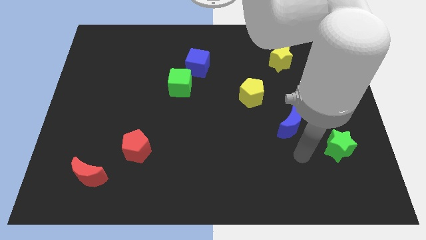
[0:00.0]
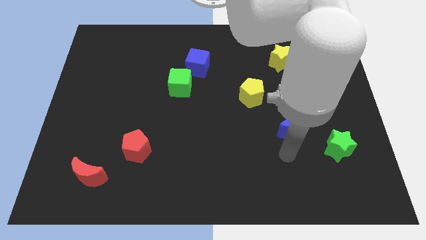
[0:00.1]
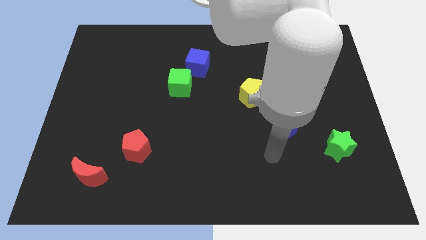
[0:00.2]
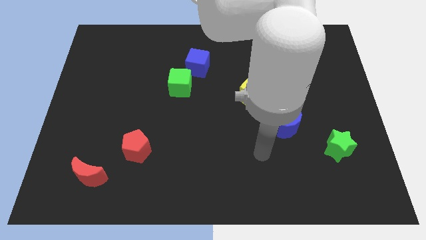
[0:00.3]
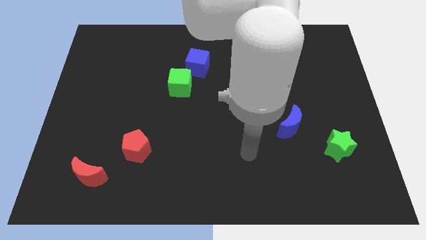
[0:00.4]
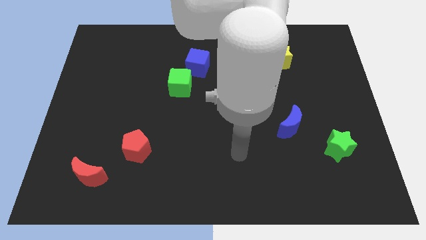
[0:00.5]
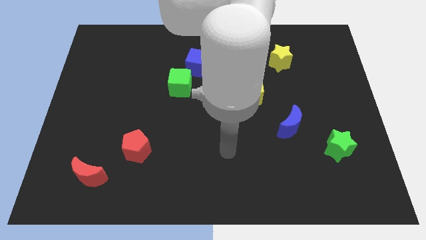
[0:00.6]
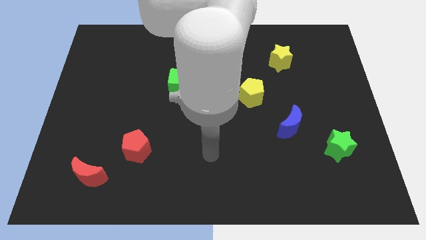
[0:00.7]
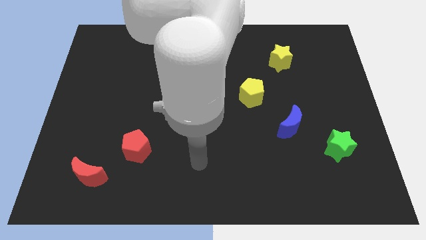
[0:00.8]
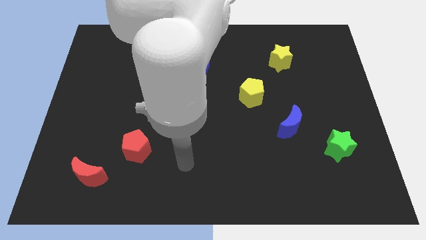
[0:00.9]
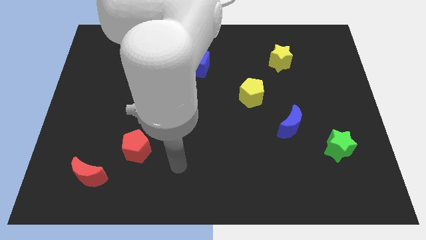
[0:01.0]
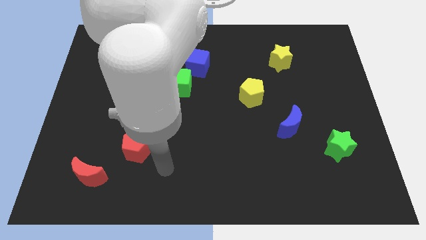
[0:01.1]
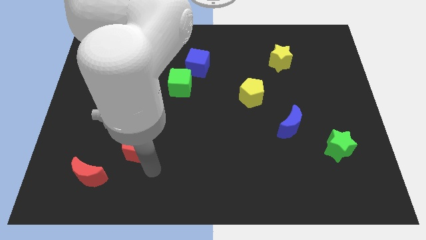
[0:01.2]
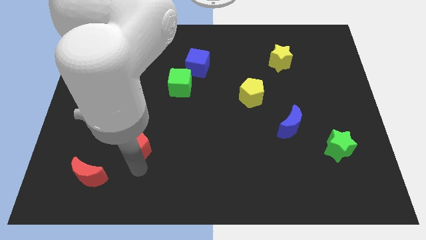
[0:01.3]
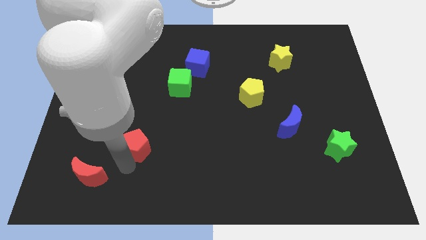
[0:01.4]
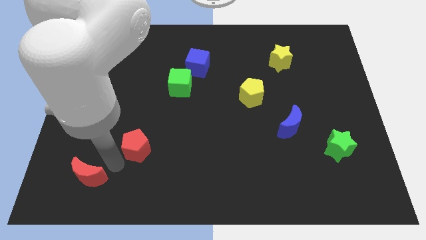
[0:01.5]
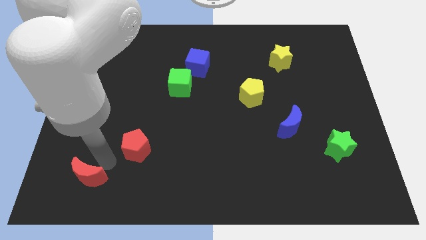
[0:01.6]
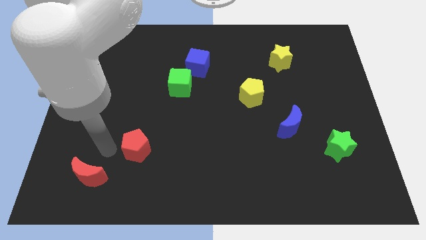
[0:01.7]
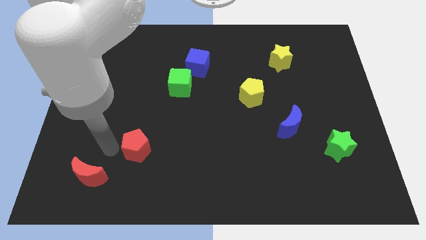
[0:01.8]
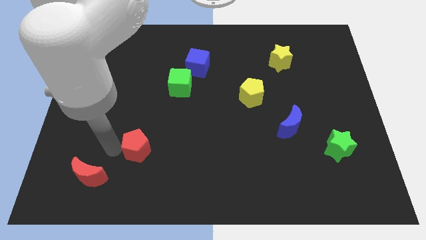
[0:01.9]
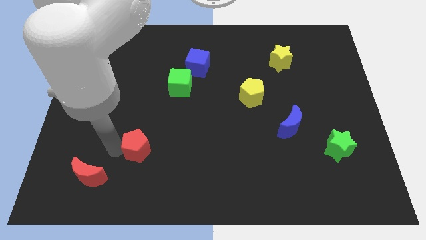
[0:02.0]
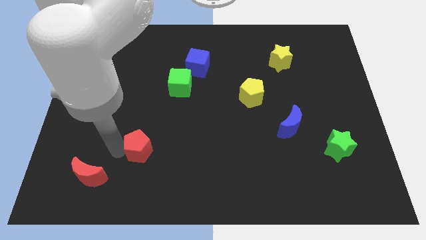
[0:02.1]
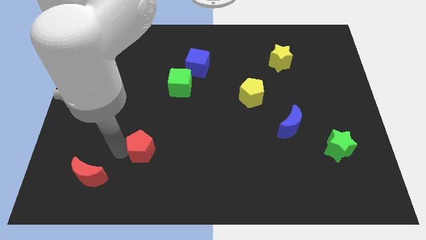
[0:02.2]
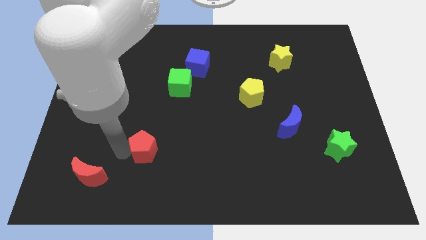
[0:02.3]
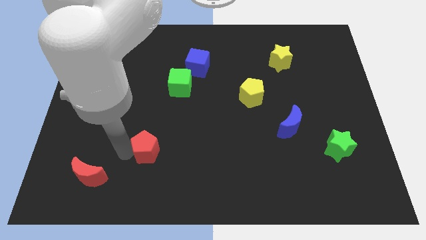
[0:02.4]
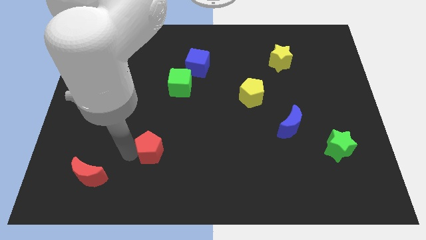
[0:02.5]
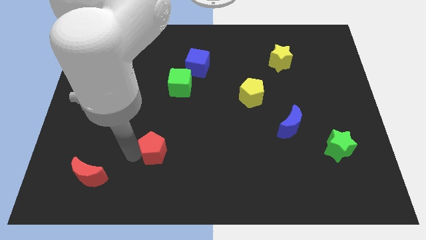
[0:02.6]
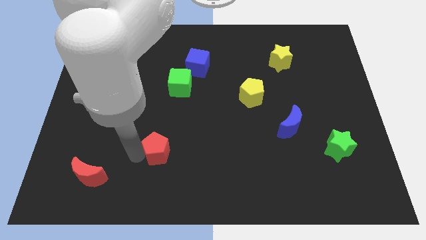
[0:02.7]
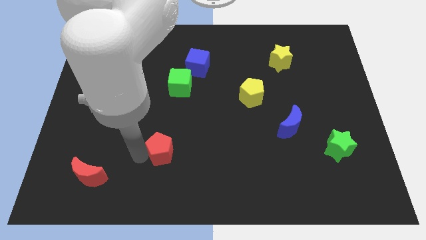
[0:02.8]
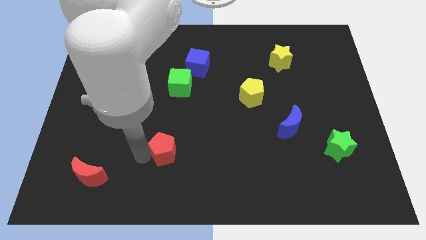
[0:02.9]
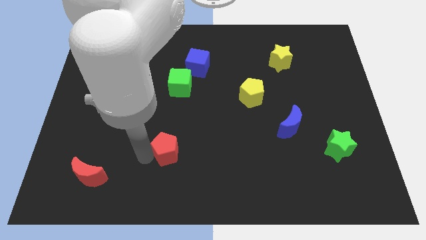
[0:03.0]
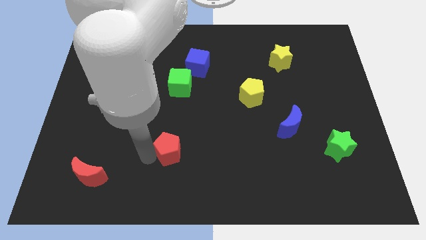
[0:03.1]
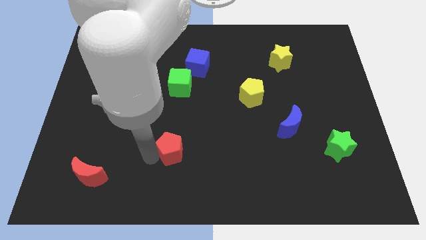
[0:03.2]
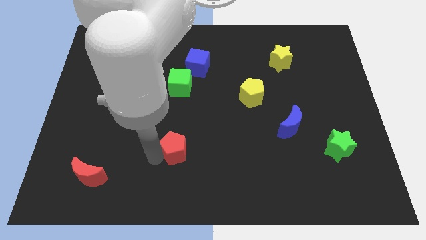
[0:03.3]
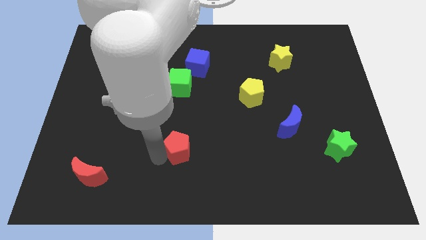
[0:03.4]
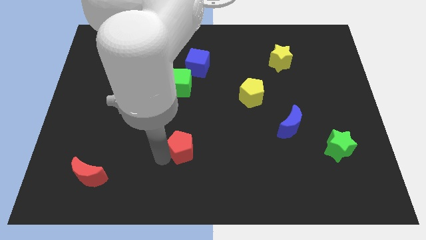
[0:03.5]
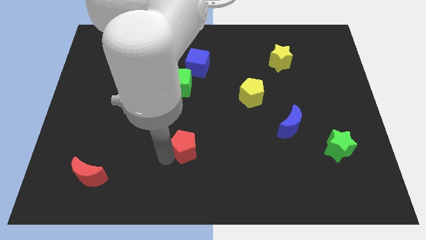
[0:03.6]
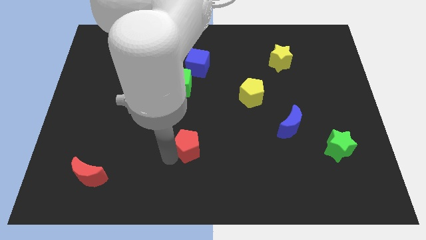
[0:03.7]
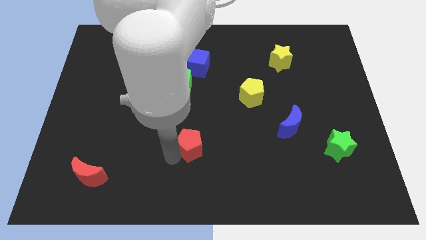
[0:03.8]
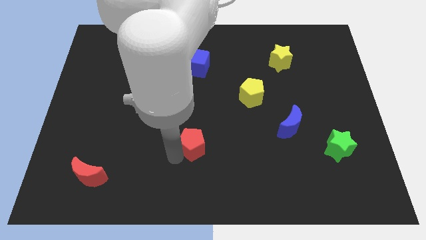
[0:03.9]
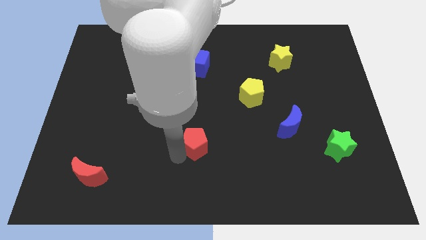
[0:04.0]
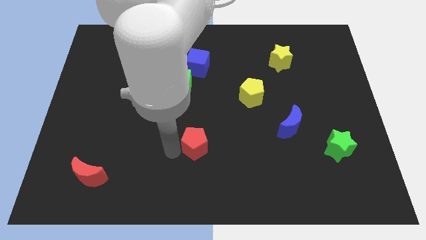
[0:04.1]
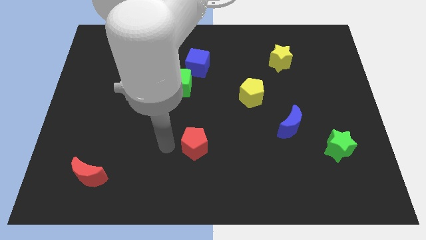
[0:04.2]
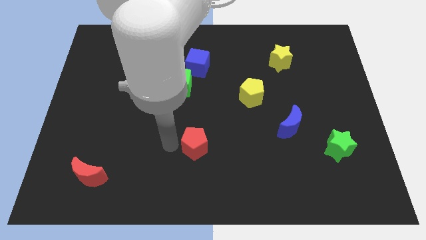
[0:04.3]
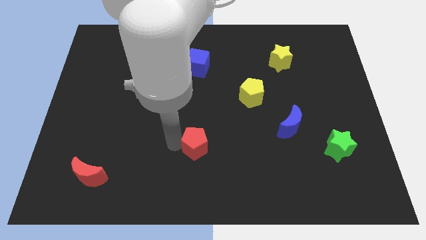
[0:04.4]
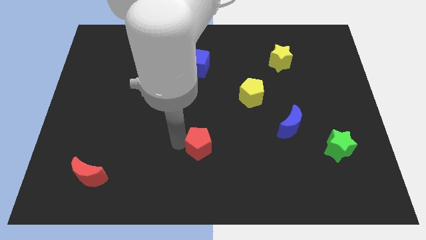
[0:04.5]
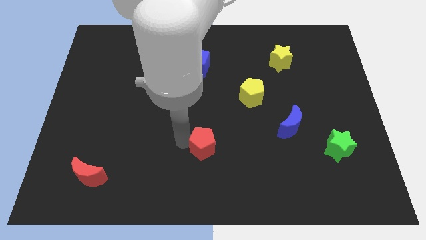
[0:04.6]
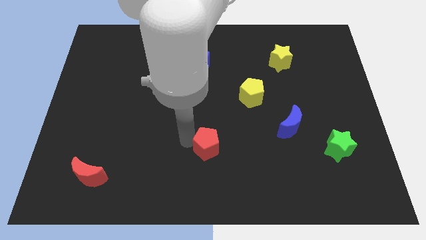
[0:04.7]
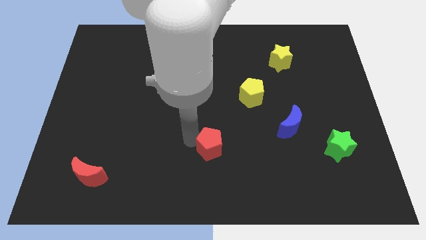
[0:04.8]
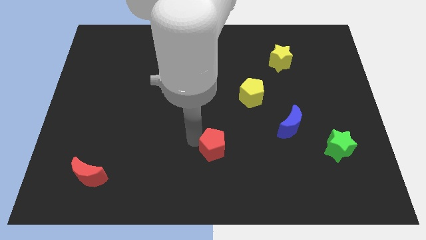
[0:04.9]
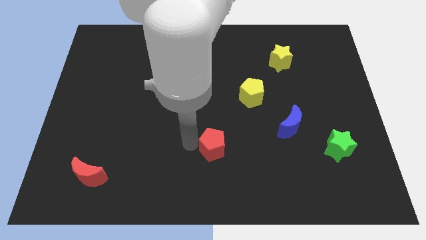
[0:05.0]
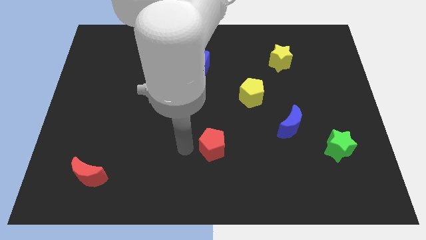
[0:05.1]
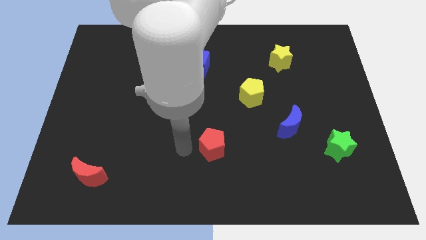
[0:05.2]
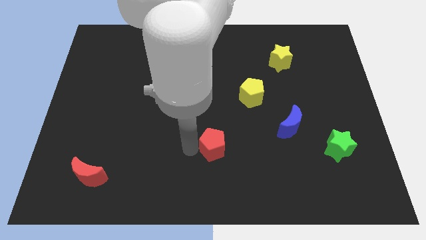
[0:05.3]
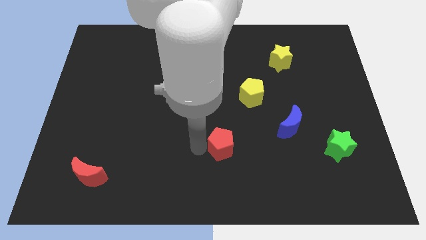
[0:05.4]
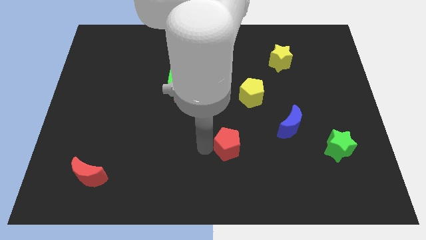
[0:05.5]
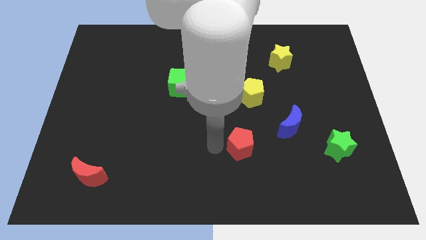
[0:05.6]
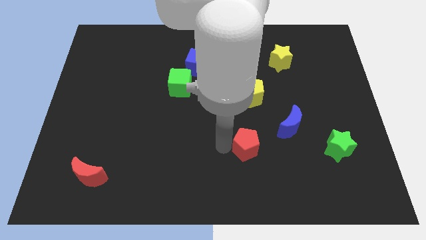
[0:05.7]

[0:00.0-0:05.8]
push the red pentagon to the bottom left of the blue moon
